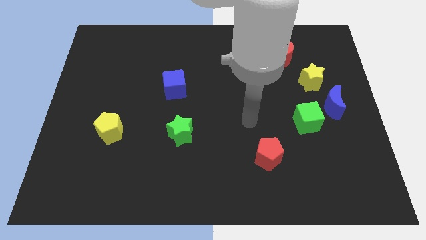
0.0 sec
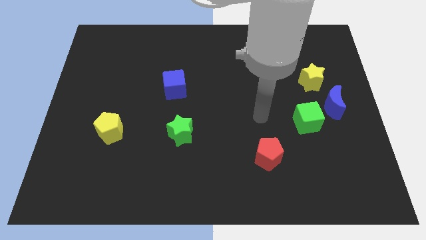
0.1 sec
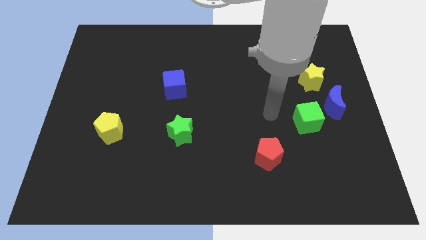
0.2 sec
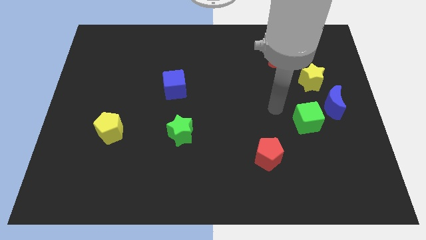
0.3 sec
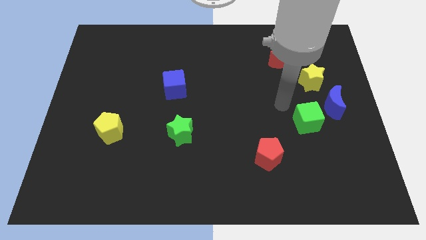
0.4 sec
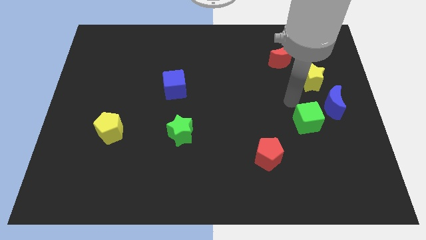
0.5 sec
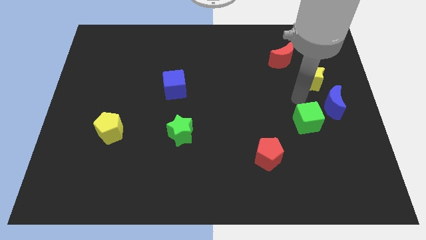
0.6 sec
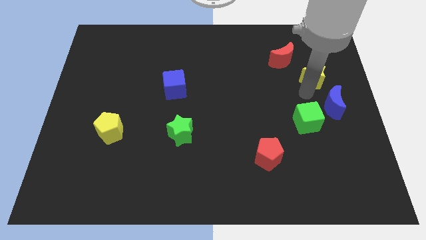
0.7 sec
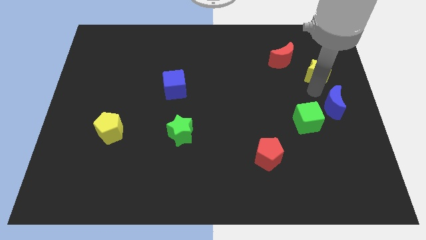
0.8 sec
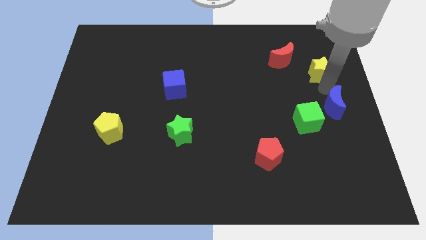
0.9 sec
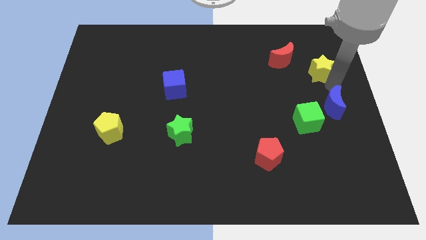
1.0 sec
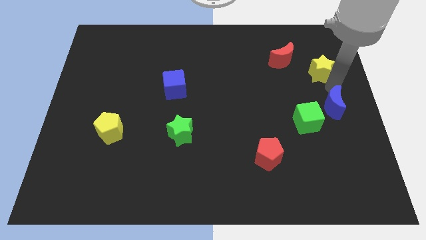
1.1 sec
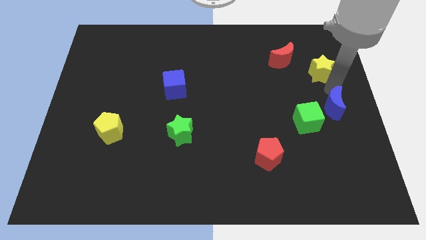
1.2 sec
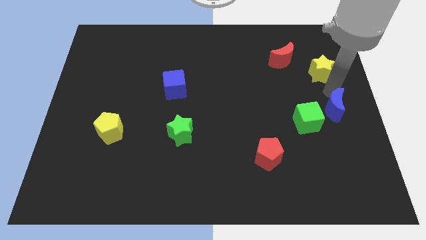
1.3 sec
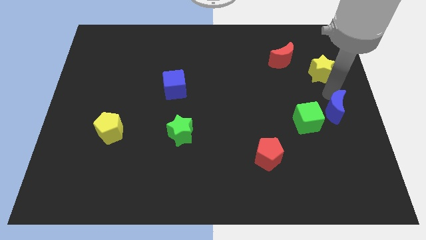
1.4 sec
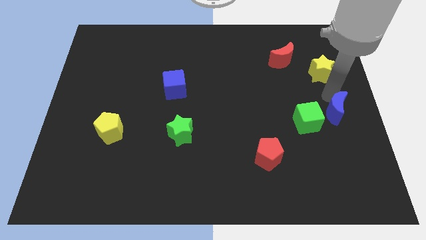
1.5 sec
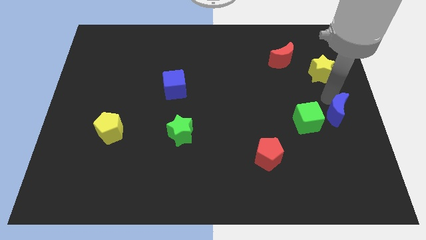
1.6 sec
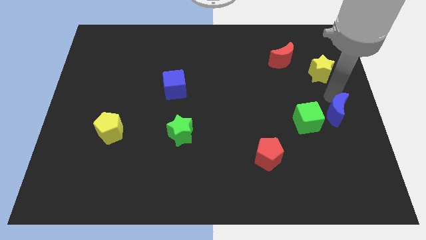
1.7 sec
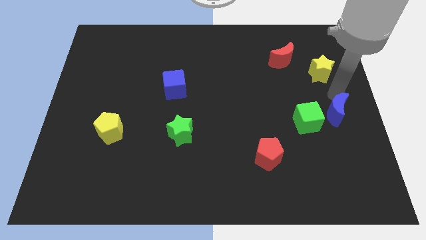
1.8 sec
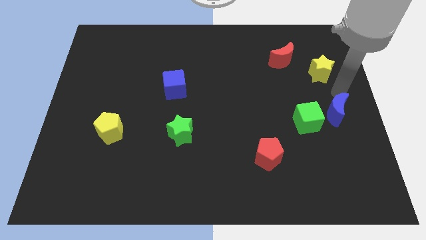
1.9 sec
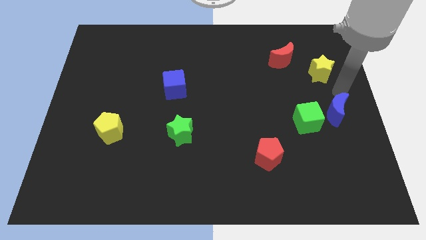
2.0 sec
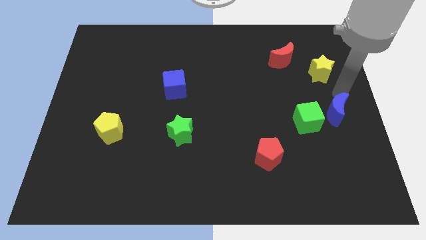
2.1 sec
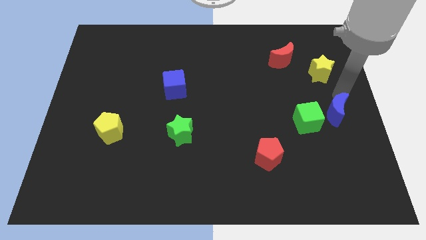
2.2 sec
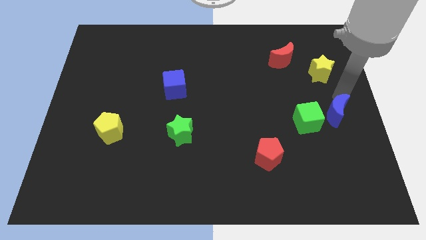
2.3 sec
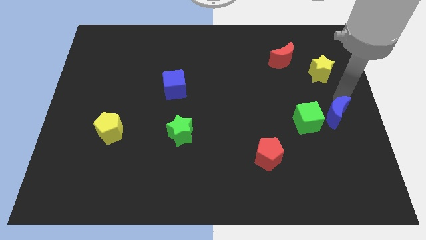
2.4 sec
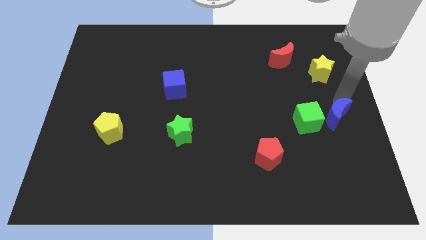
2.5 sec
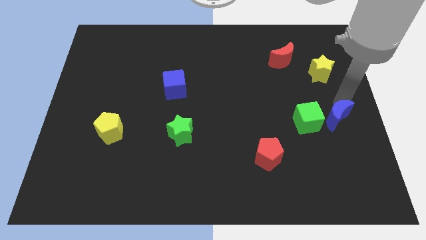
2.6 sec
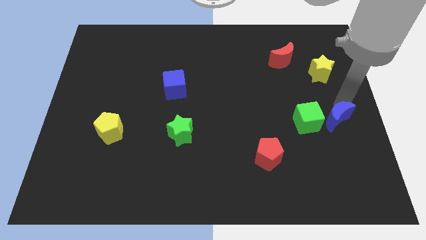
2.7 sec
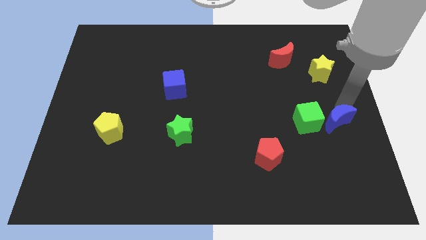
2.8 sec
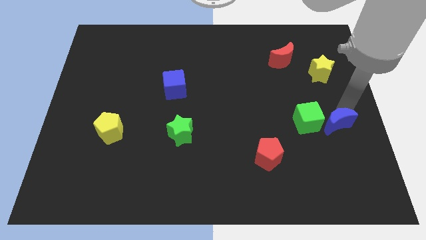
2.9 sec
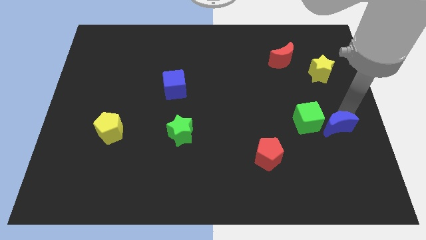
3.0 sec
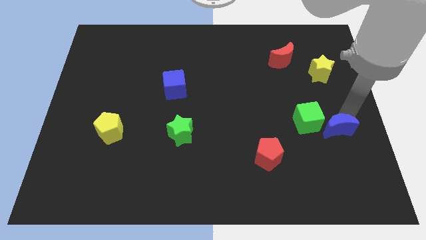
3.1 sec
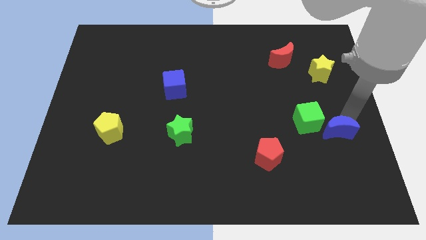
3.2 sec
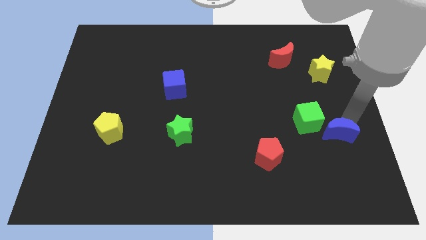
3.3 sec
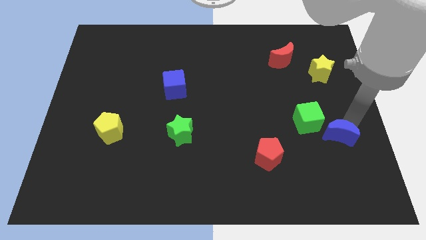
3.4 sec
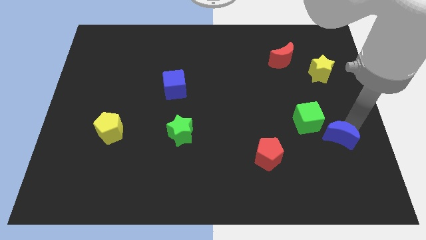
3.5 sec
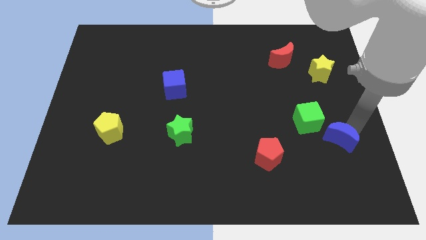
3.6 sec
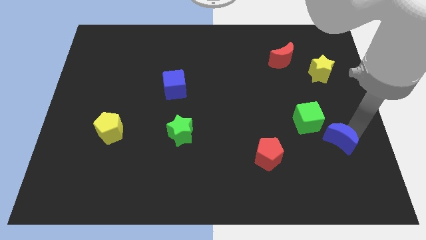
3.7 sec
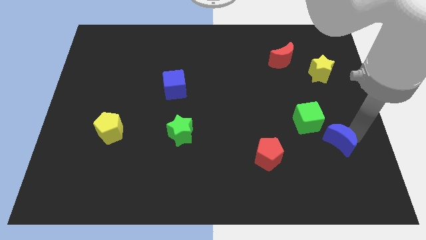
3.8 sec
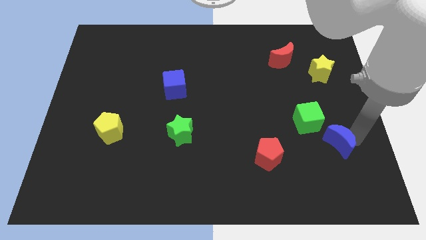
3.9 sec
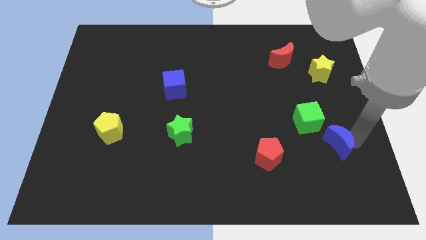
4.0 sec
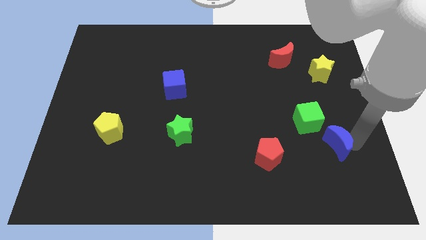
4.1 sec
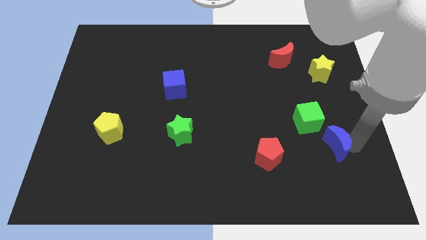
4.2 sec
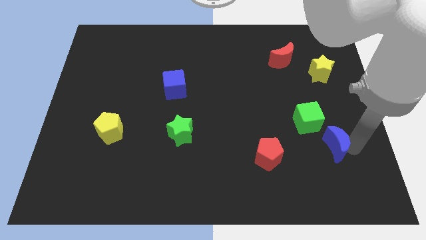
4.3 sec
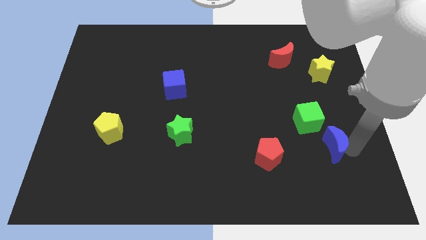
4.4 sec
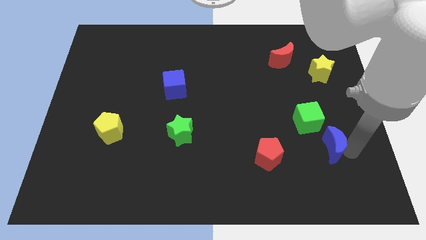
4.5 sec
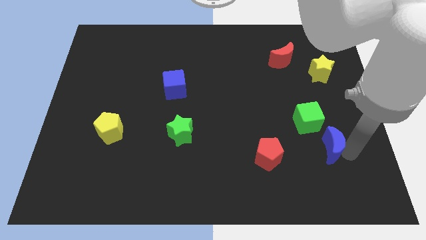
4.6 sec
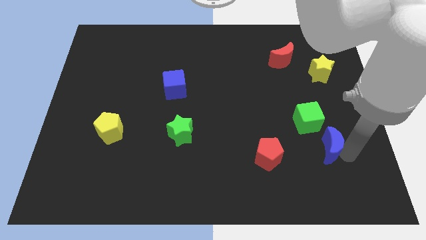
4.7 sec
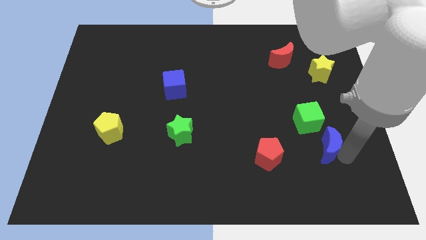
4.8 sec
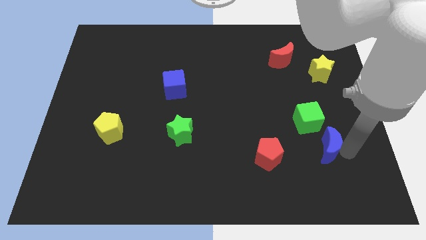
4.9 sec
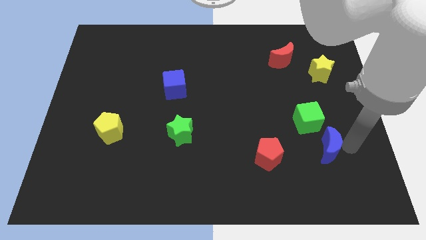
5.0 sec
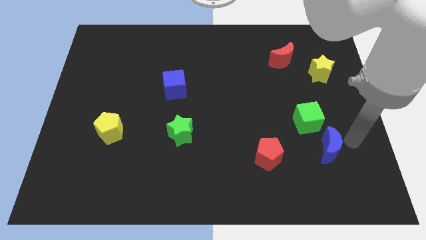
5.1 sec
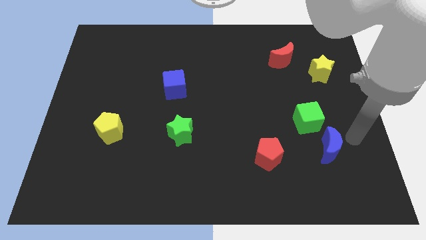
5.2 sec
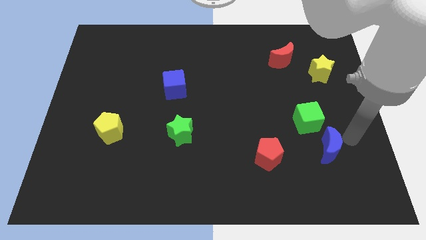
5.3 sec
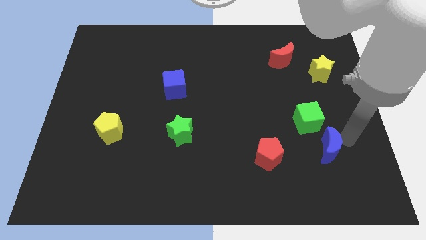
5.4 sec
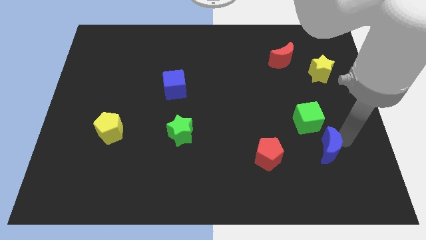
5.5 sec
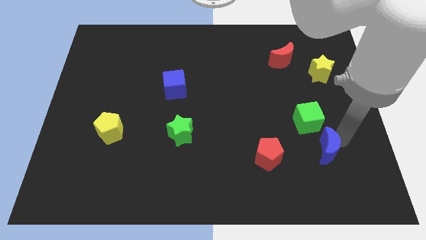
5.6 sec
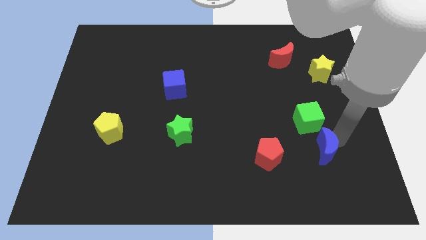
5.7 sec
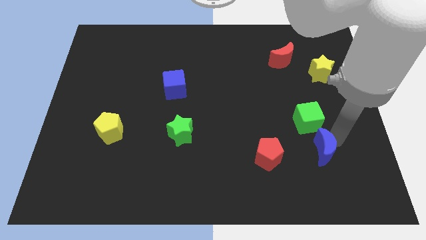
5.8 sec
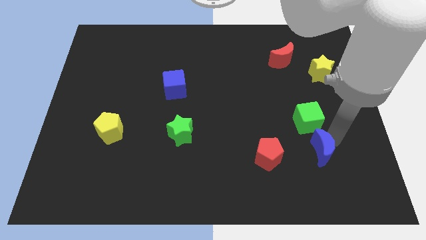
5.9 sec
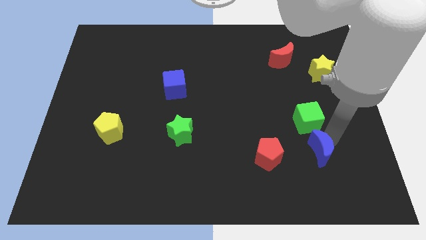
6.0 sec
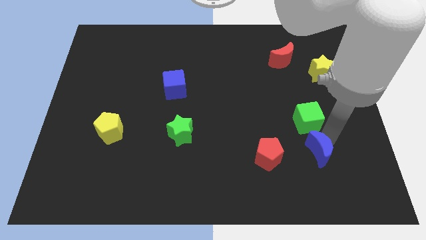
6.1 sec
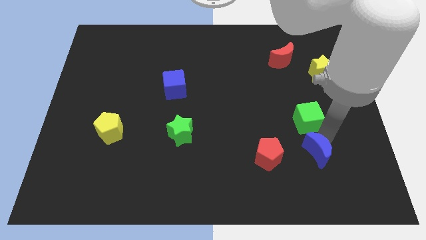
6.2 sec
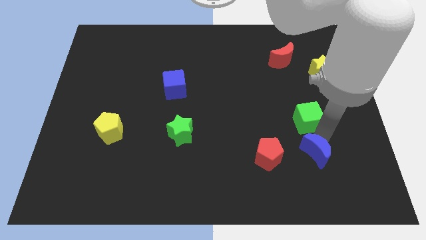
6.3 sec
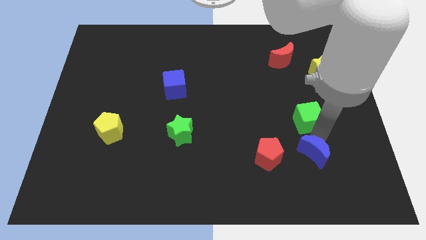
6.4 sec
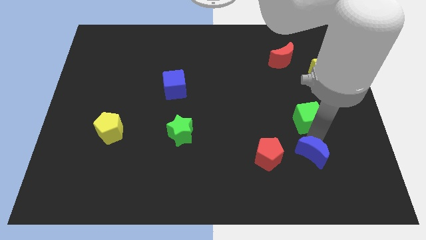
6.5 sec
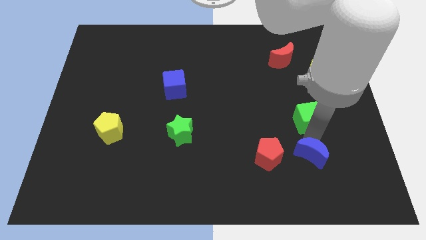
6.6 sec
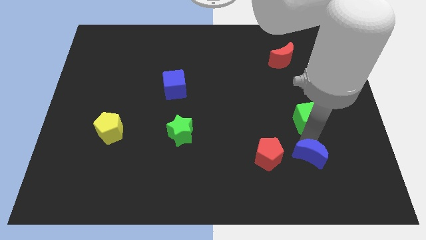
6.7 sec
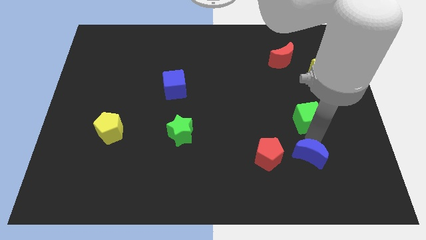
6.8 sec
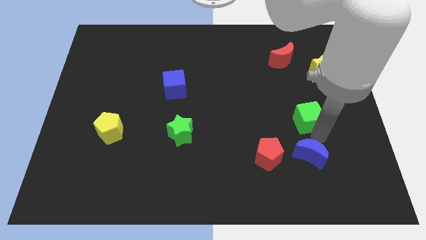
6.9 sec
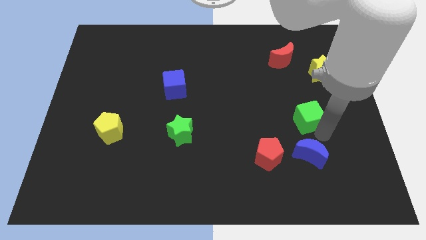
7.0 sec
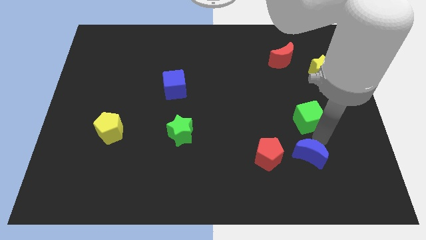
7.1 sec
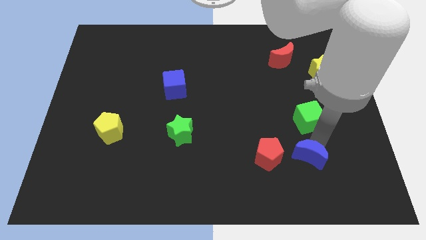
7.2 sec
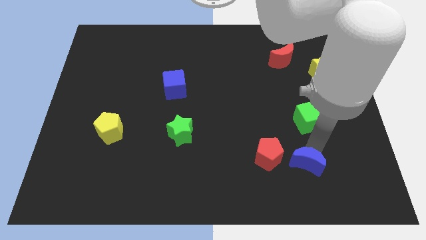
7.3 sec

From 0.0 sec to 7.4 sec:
put the blue moon diagonally down and to the right of the red pentagon

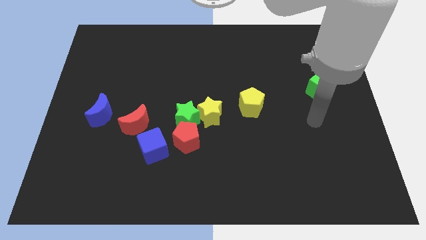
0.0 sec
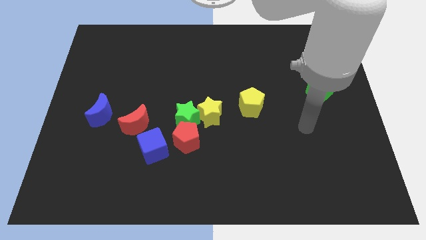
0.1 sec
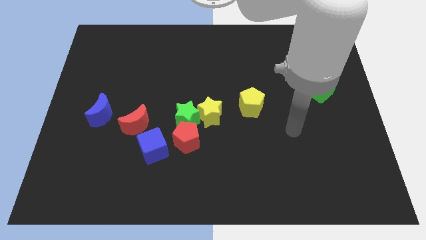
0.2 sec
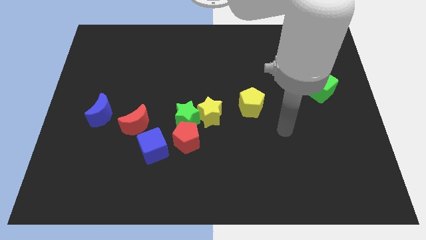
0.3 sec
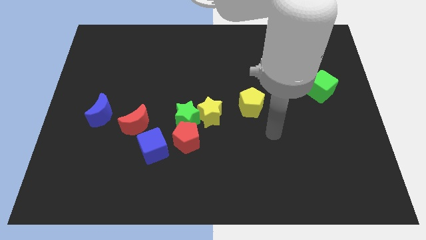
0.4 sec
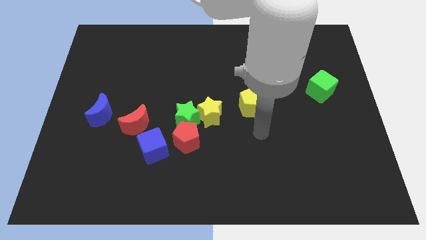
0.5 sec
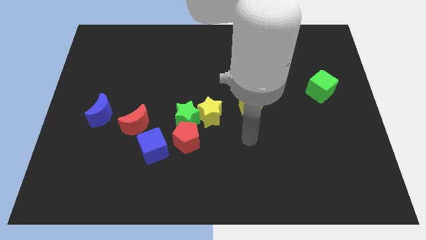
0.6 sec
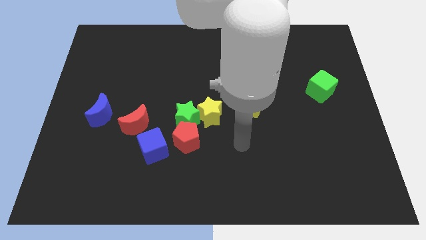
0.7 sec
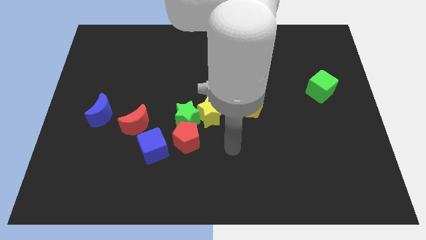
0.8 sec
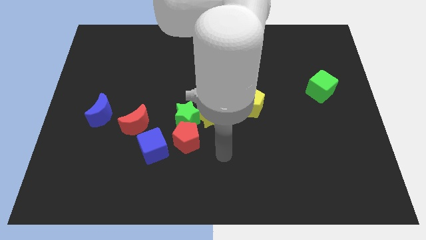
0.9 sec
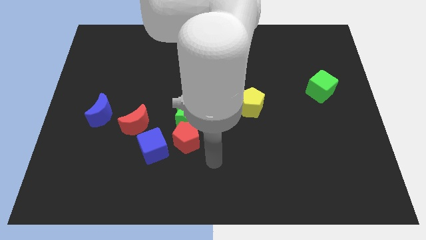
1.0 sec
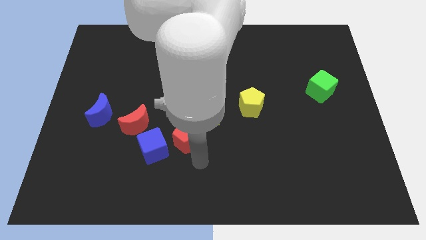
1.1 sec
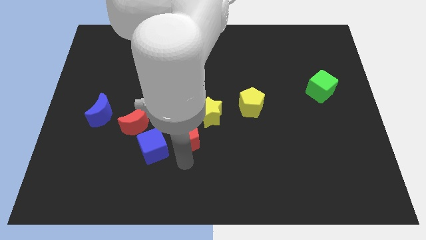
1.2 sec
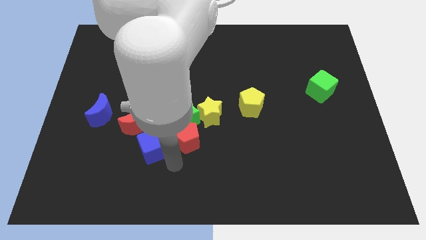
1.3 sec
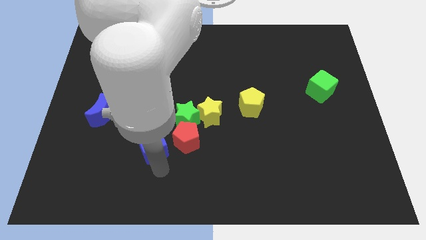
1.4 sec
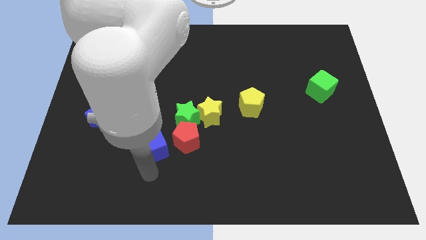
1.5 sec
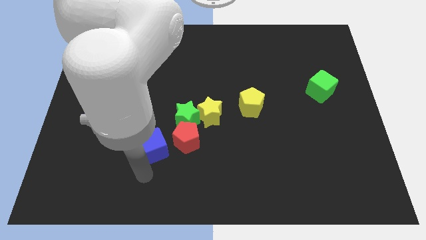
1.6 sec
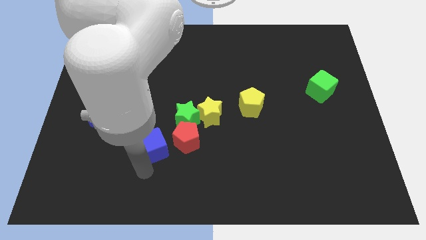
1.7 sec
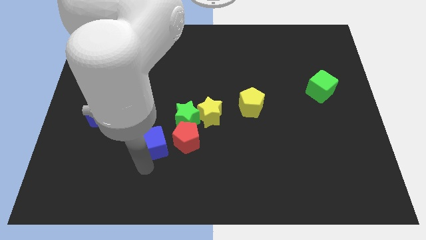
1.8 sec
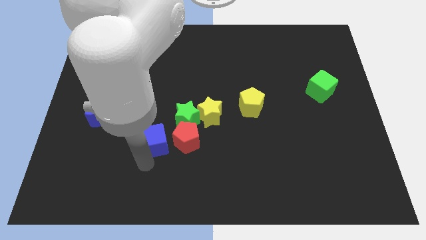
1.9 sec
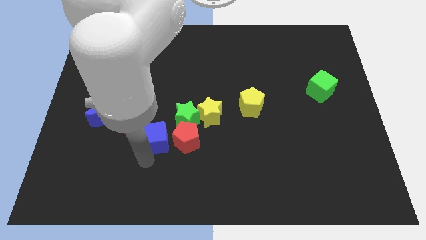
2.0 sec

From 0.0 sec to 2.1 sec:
move the blue cube to the top left of the red pentagon
